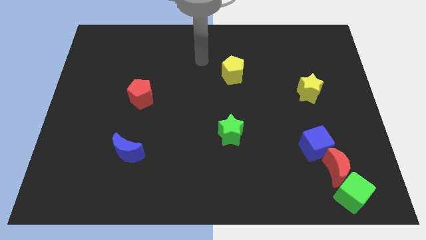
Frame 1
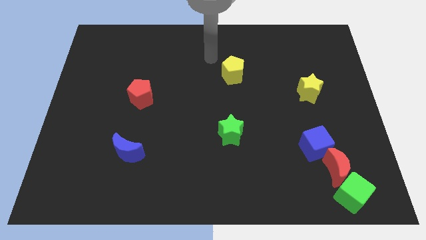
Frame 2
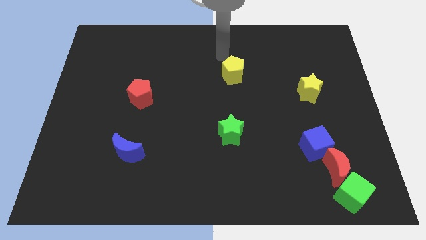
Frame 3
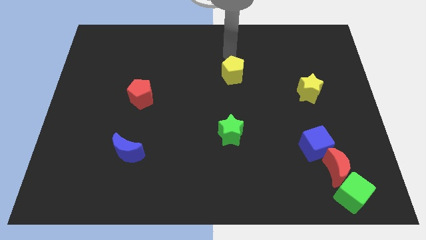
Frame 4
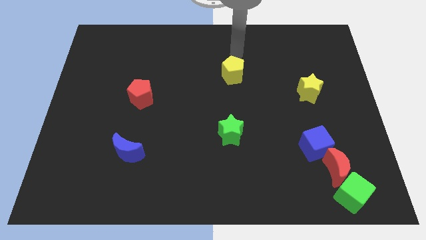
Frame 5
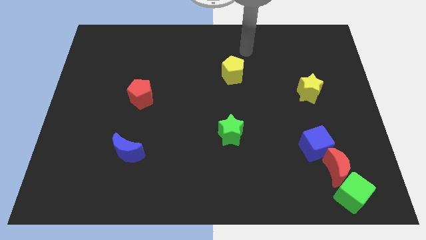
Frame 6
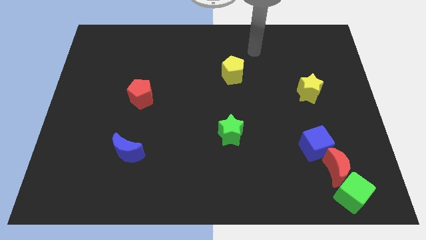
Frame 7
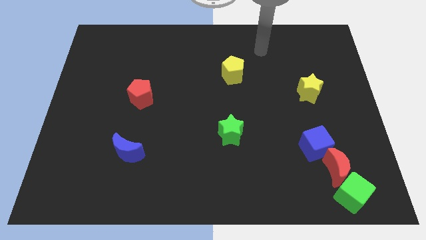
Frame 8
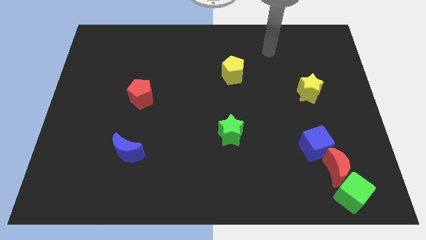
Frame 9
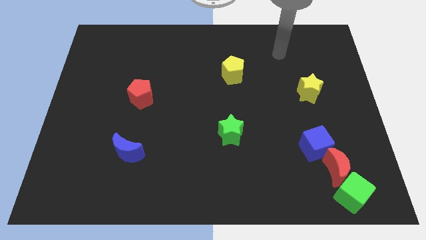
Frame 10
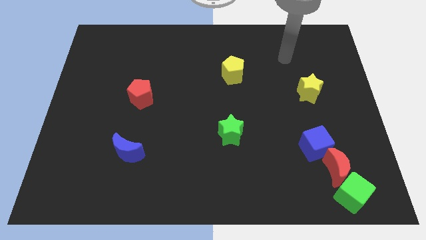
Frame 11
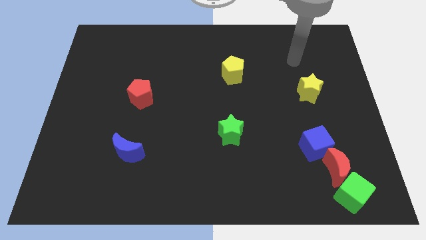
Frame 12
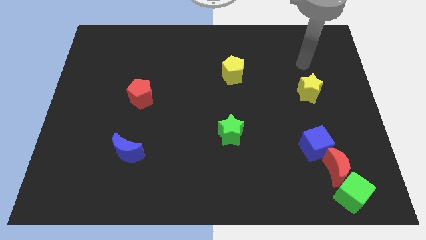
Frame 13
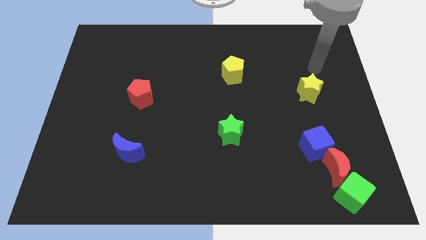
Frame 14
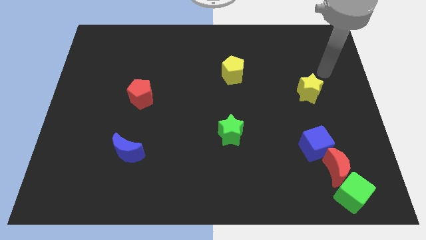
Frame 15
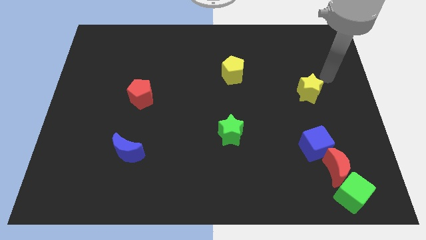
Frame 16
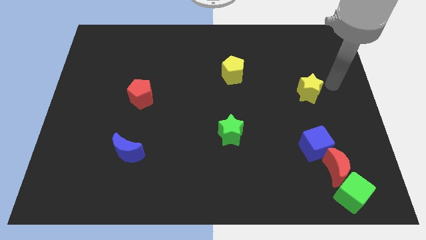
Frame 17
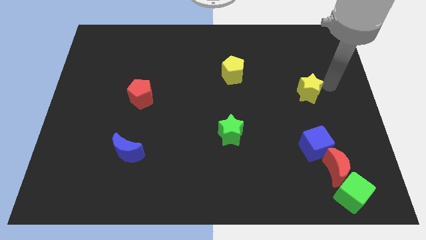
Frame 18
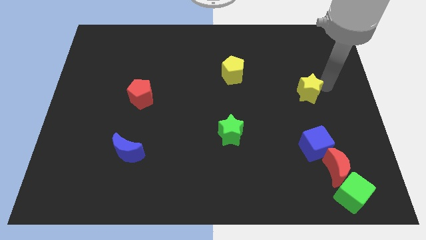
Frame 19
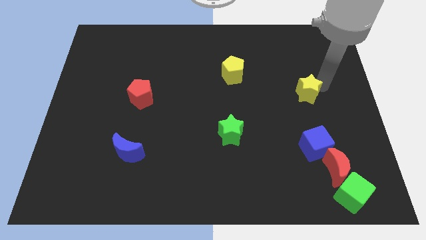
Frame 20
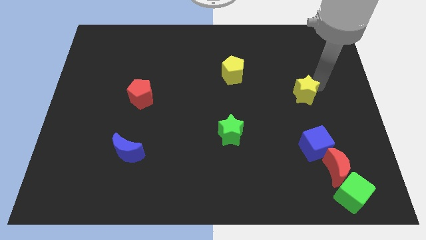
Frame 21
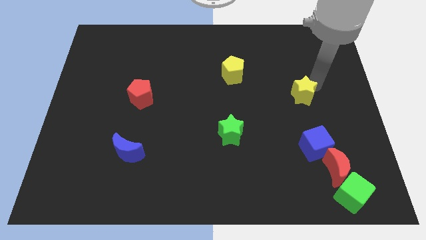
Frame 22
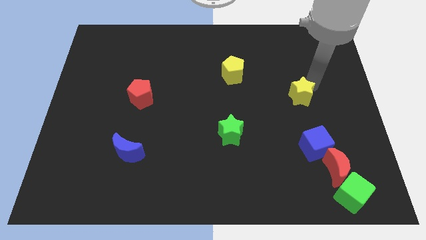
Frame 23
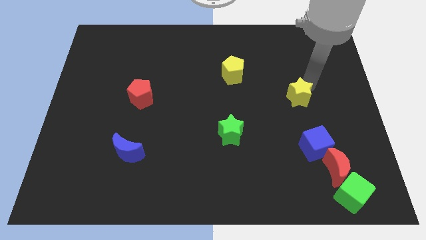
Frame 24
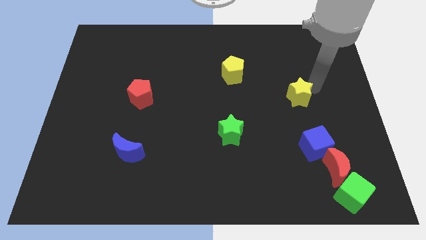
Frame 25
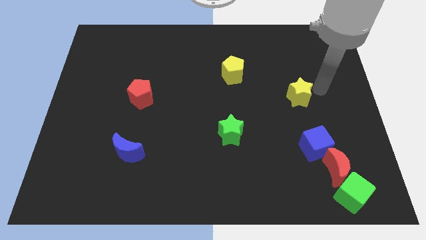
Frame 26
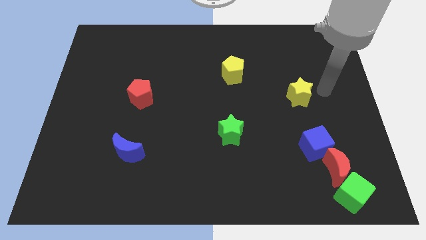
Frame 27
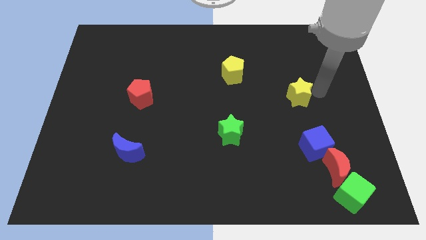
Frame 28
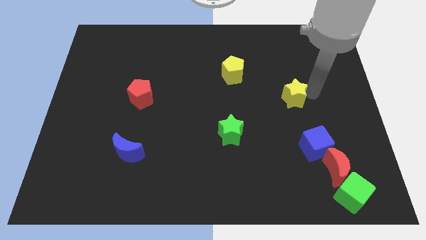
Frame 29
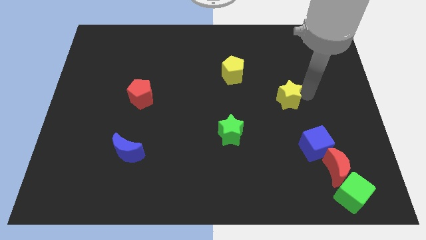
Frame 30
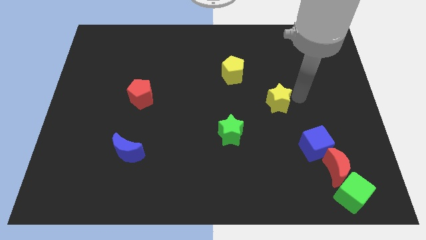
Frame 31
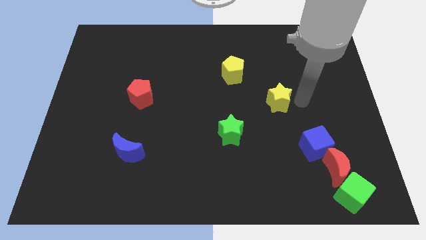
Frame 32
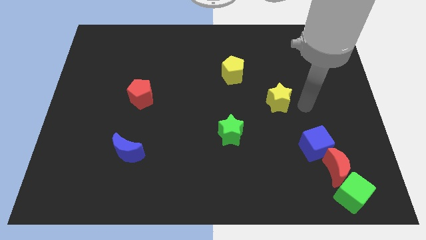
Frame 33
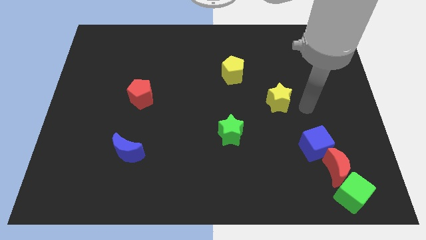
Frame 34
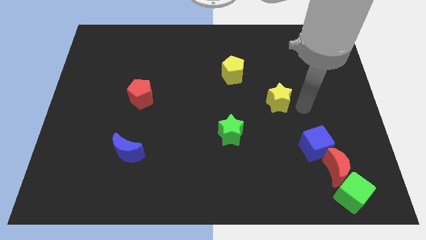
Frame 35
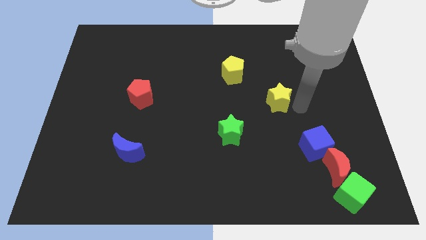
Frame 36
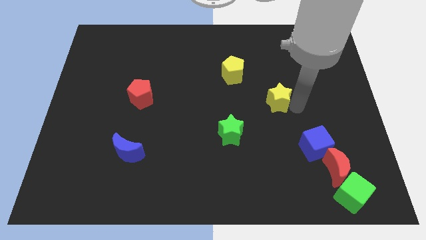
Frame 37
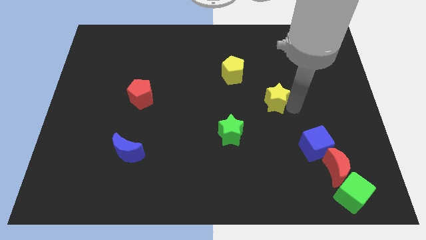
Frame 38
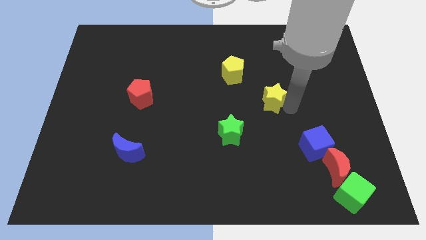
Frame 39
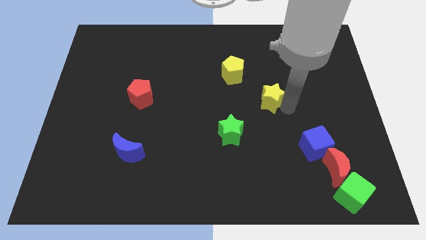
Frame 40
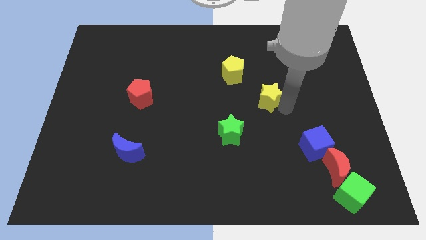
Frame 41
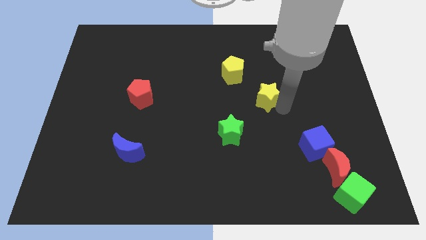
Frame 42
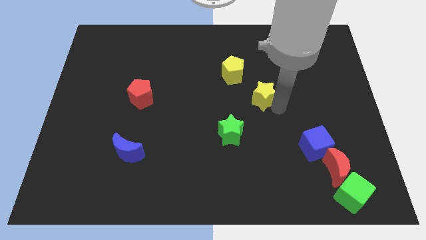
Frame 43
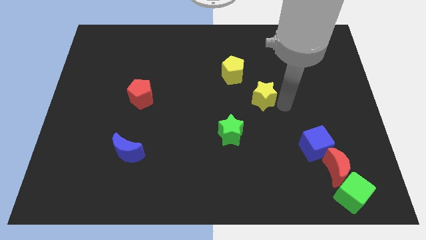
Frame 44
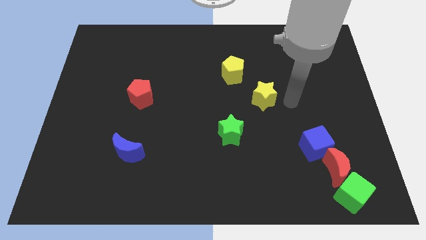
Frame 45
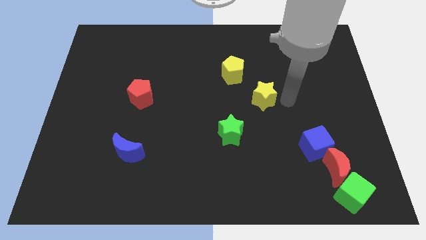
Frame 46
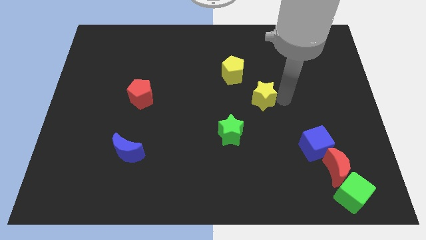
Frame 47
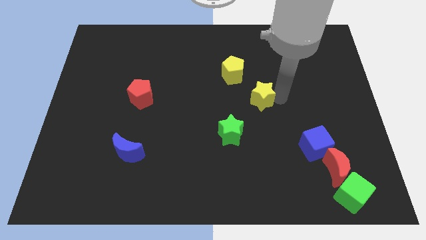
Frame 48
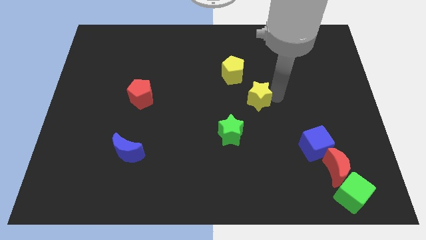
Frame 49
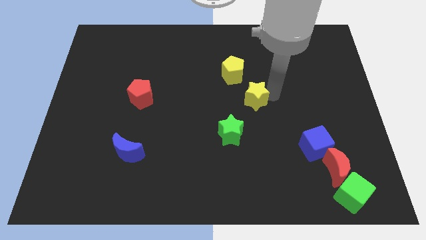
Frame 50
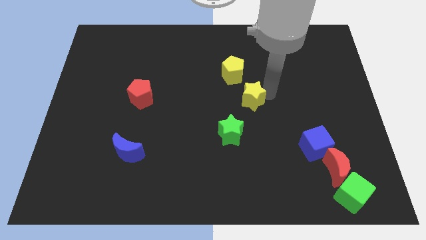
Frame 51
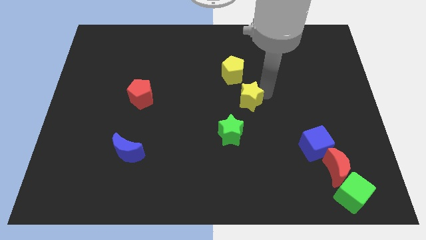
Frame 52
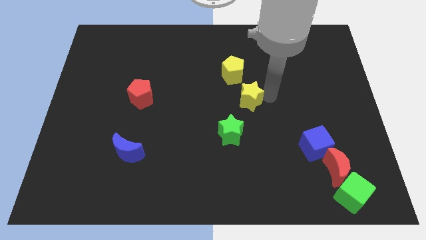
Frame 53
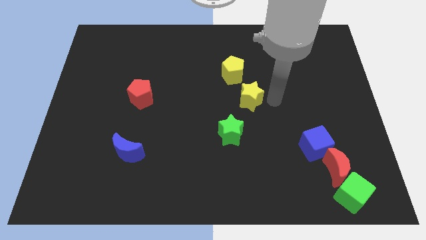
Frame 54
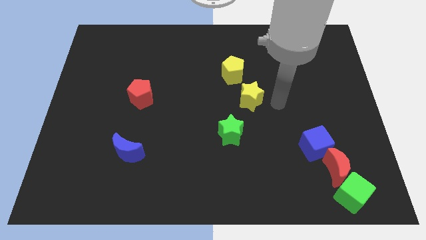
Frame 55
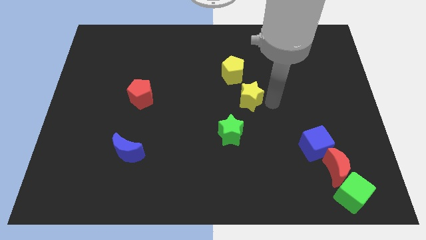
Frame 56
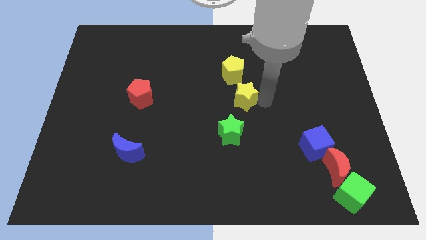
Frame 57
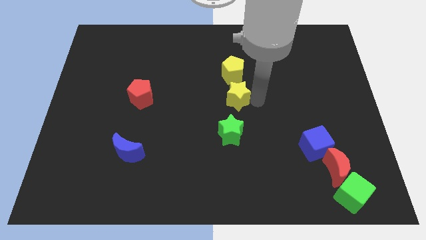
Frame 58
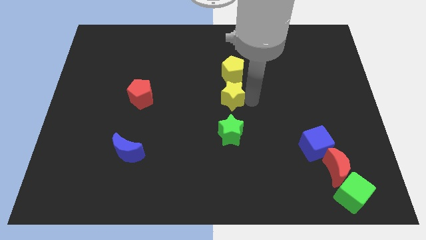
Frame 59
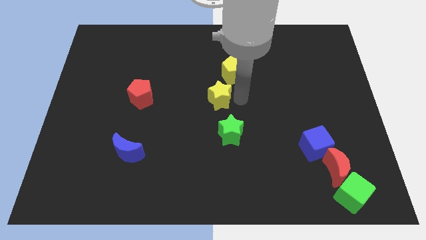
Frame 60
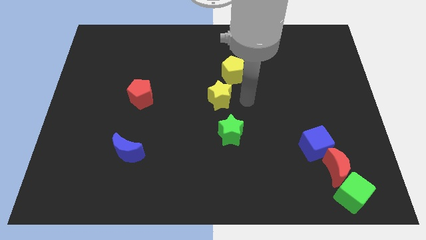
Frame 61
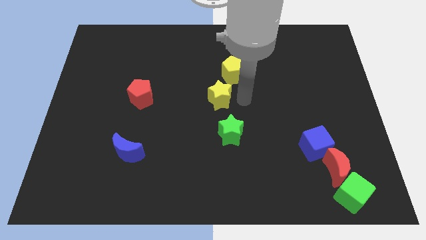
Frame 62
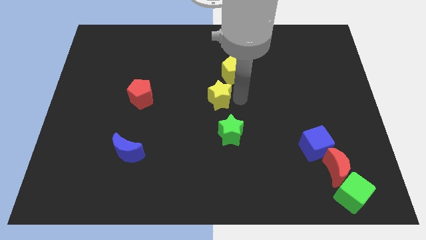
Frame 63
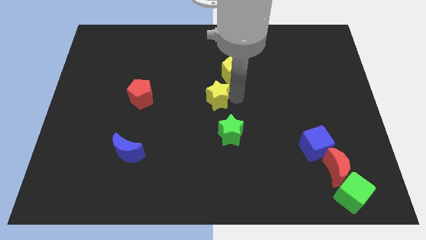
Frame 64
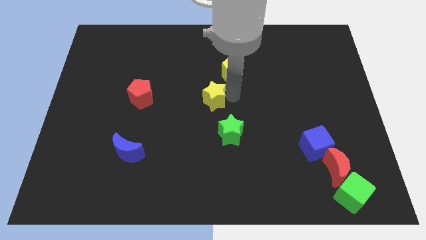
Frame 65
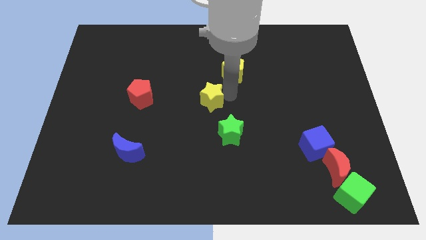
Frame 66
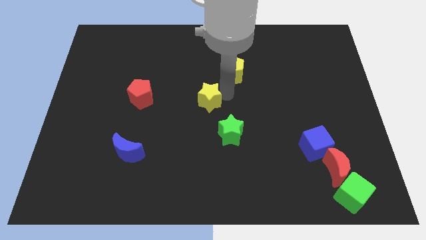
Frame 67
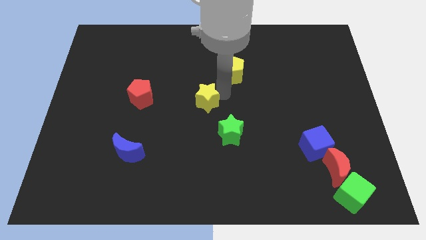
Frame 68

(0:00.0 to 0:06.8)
put the yellow star to the right side of the red pentagon
